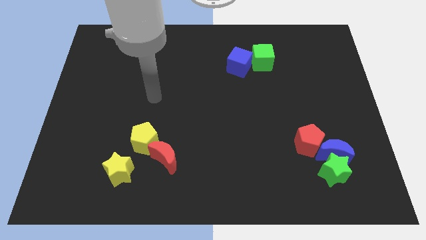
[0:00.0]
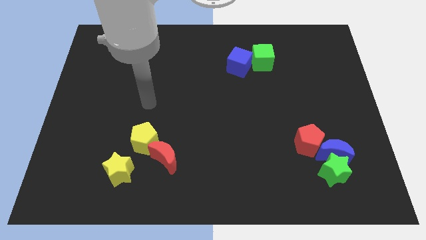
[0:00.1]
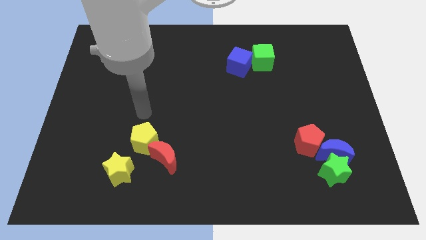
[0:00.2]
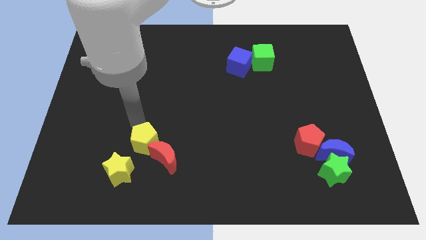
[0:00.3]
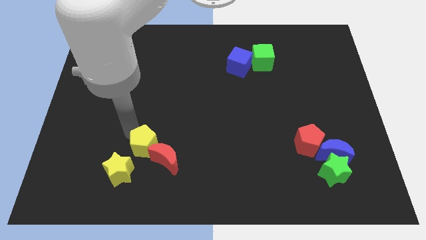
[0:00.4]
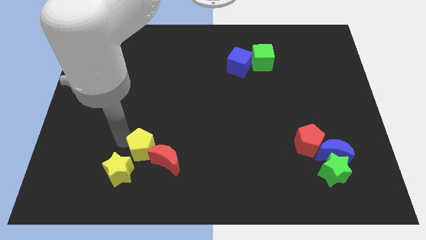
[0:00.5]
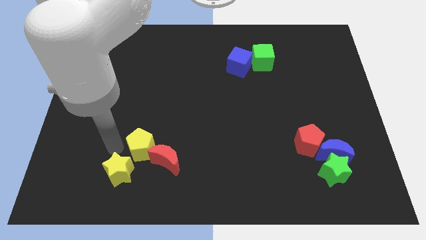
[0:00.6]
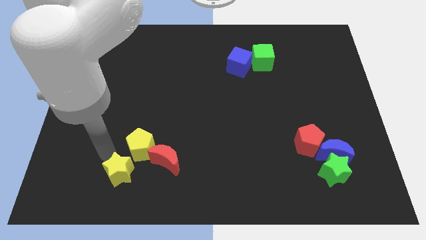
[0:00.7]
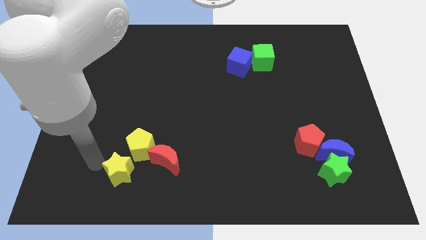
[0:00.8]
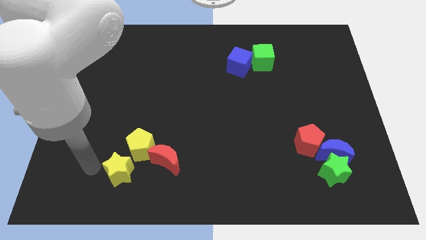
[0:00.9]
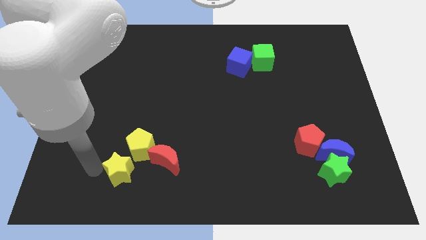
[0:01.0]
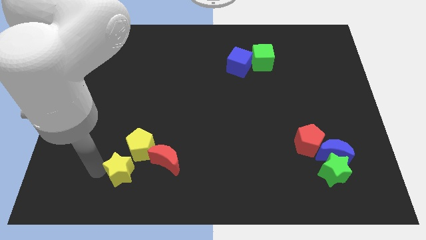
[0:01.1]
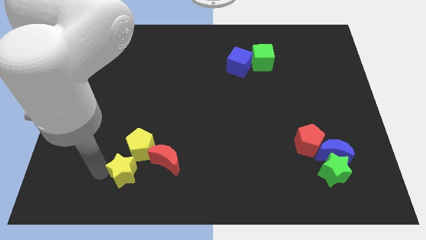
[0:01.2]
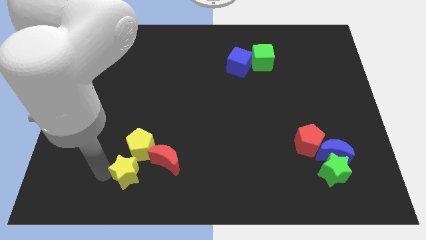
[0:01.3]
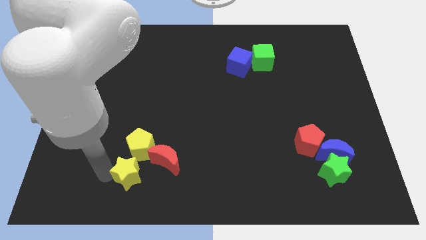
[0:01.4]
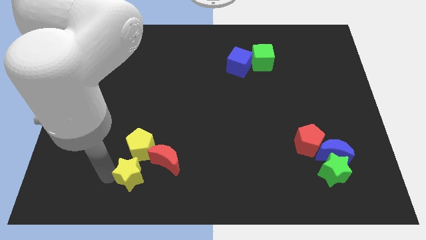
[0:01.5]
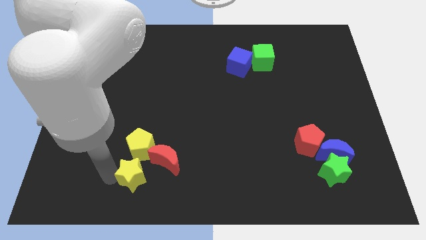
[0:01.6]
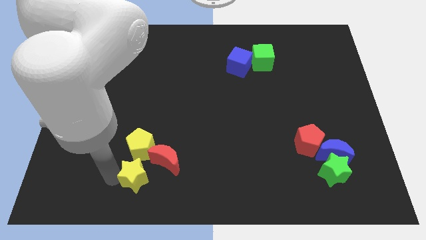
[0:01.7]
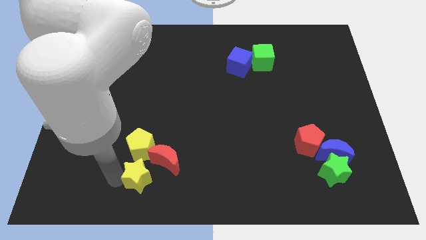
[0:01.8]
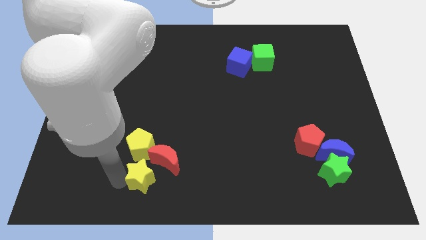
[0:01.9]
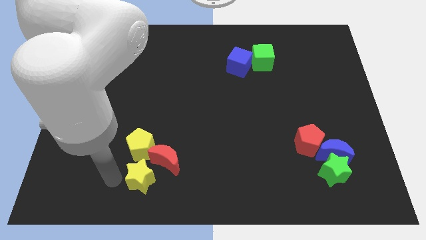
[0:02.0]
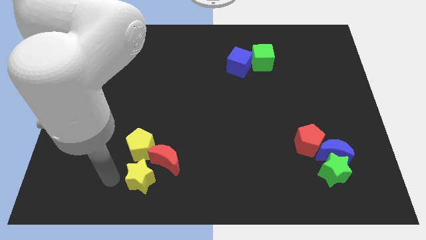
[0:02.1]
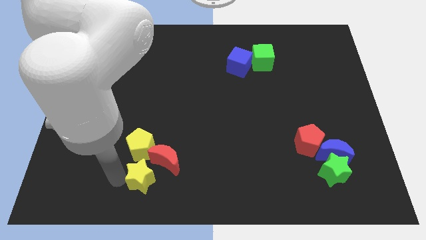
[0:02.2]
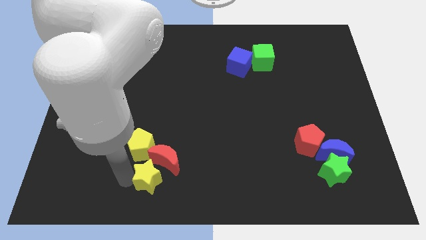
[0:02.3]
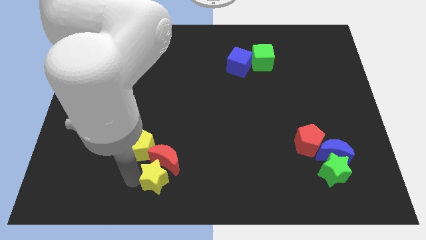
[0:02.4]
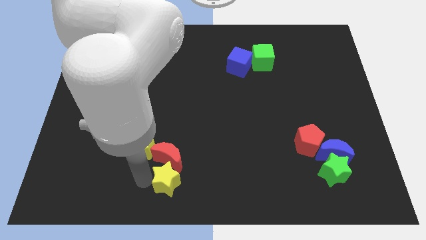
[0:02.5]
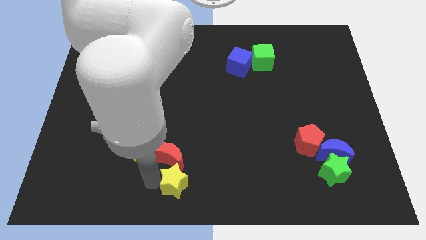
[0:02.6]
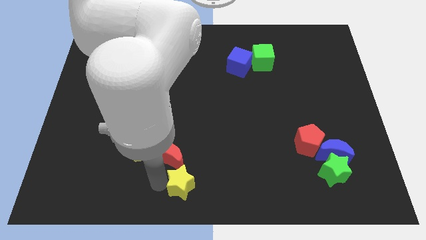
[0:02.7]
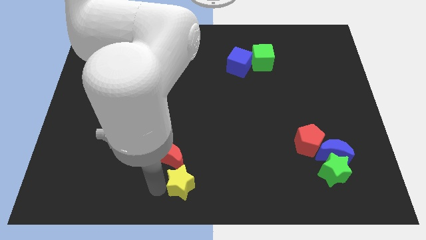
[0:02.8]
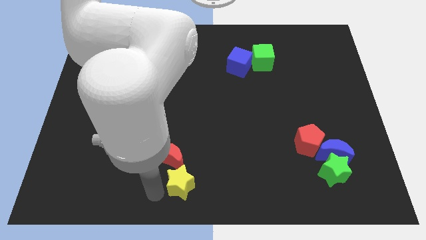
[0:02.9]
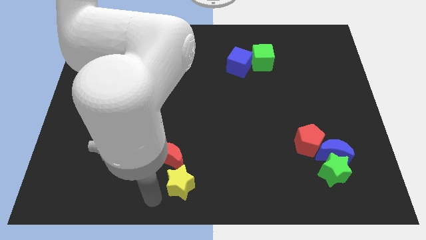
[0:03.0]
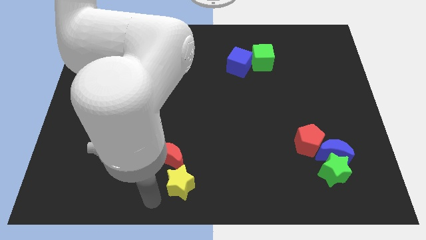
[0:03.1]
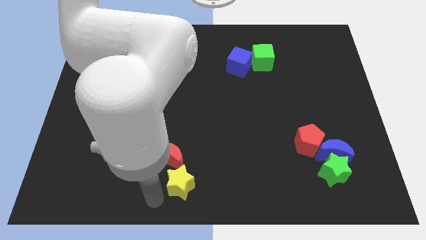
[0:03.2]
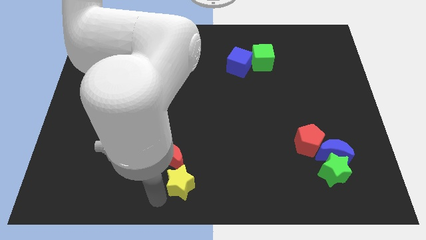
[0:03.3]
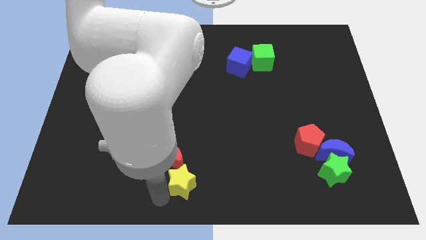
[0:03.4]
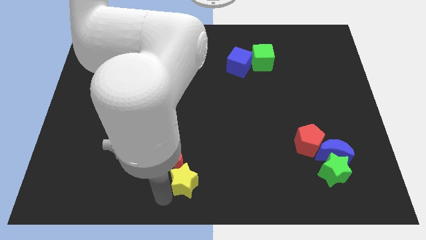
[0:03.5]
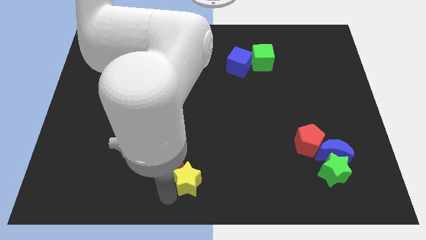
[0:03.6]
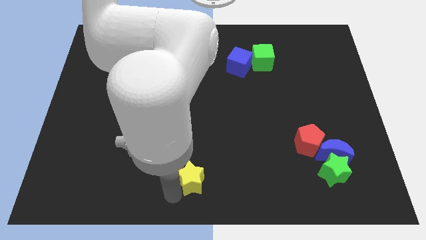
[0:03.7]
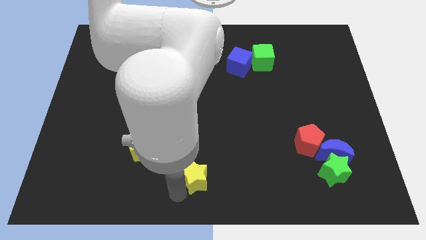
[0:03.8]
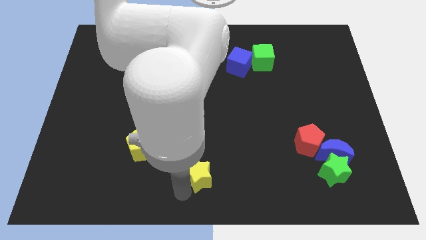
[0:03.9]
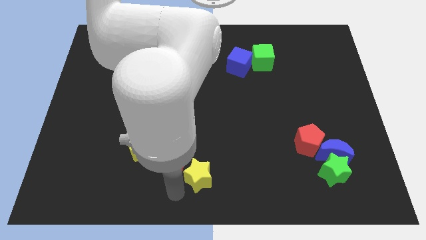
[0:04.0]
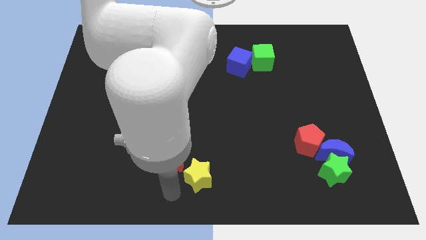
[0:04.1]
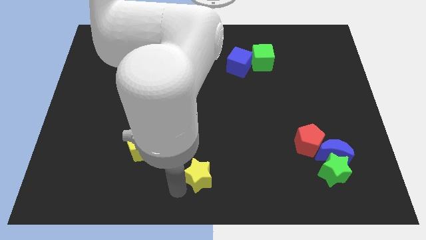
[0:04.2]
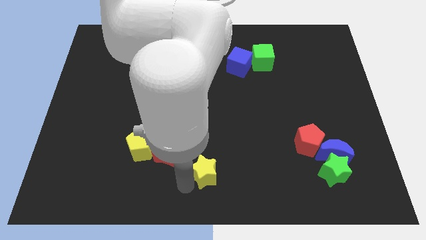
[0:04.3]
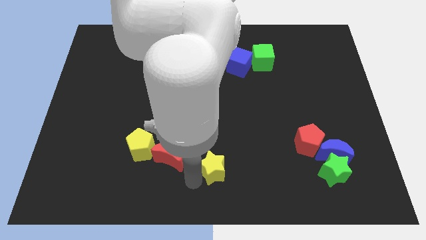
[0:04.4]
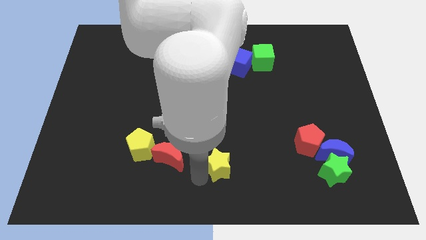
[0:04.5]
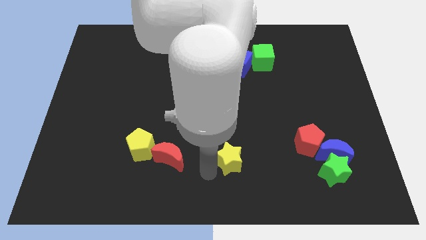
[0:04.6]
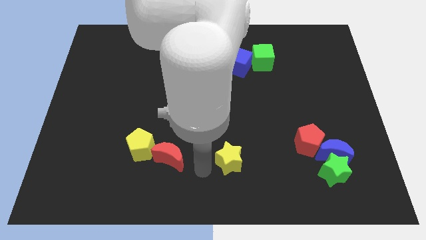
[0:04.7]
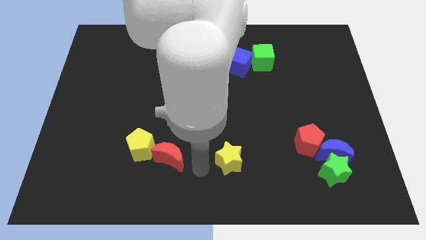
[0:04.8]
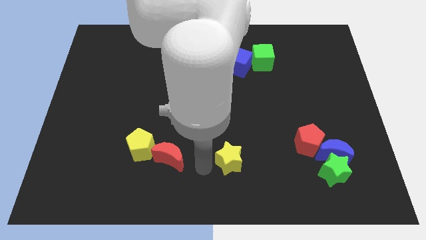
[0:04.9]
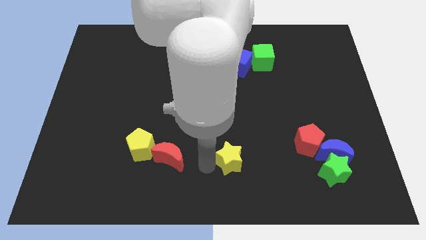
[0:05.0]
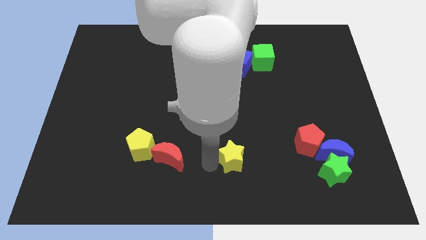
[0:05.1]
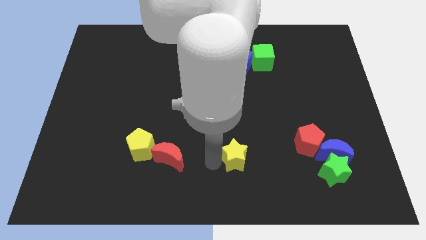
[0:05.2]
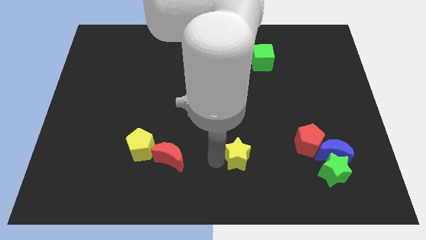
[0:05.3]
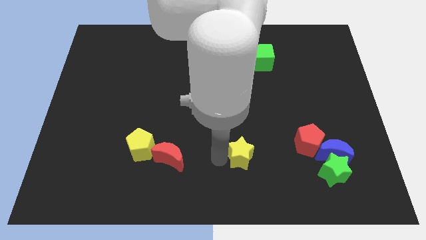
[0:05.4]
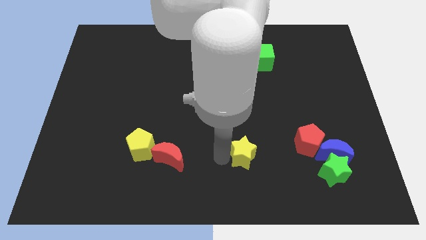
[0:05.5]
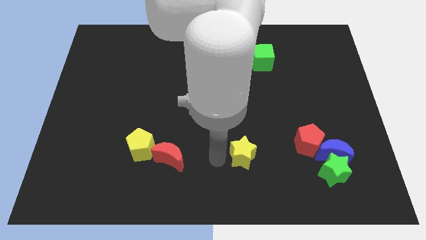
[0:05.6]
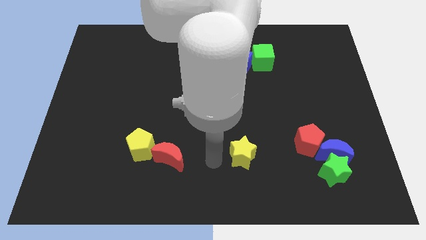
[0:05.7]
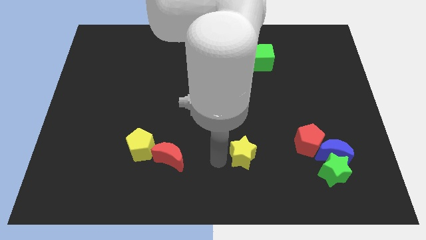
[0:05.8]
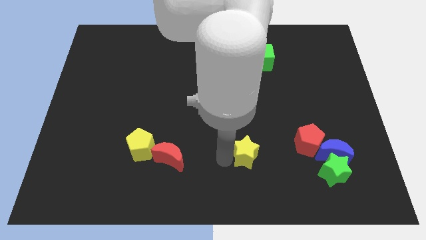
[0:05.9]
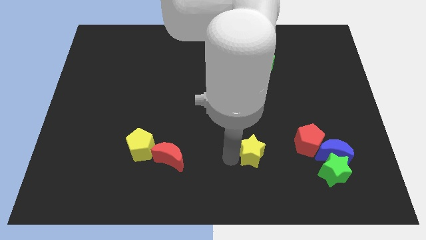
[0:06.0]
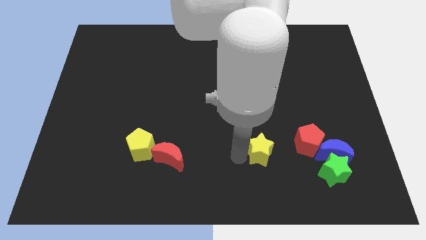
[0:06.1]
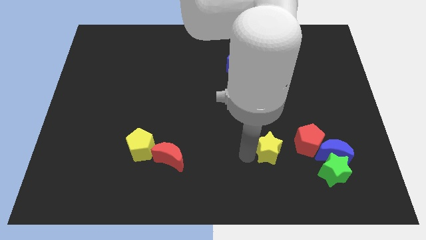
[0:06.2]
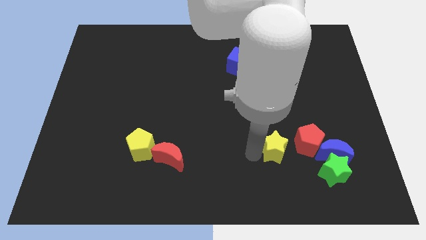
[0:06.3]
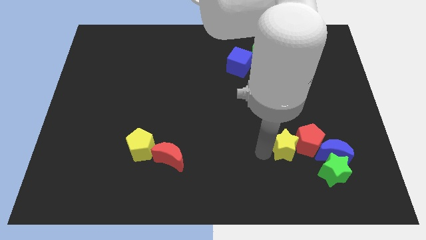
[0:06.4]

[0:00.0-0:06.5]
push the yellow star towards the red pentagon
